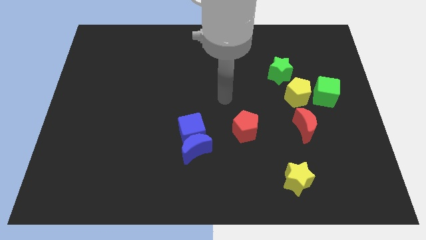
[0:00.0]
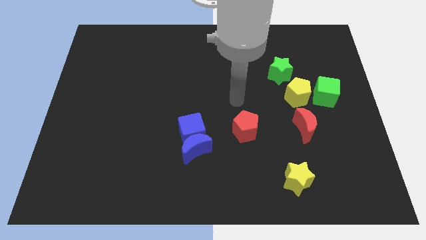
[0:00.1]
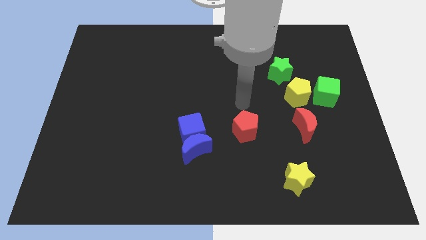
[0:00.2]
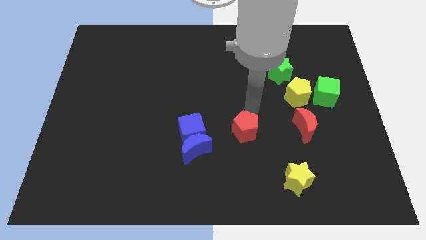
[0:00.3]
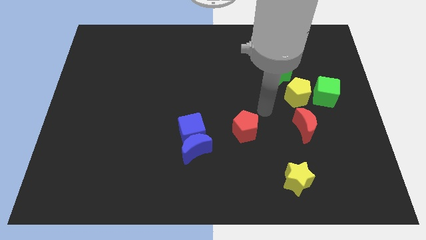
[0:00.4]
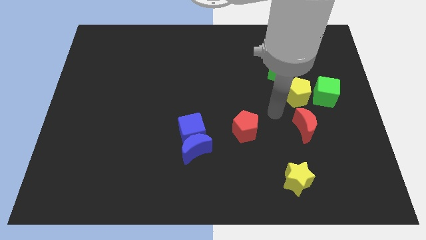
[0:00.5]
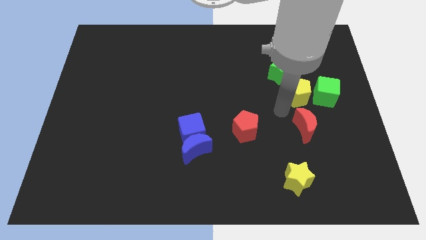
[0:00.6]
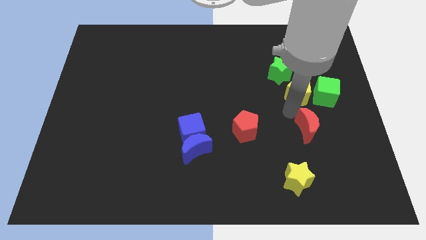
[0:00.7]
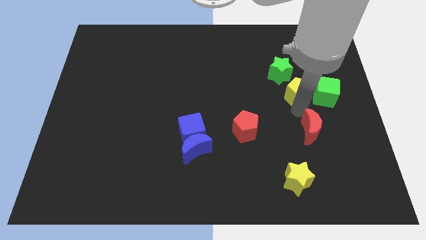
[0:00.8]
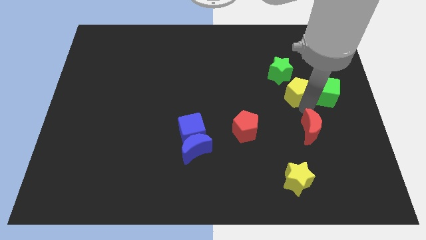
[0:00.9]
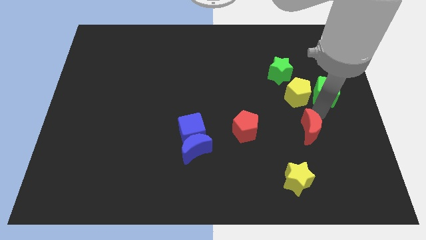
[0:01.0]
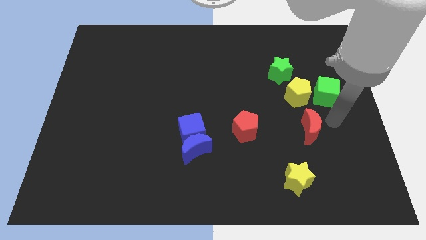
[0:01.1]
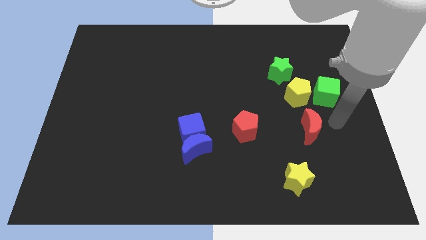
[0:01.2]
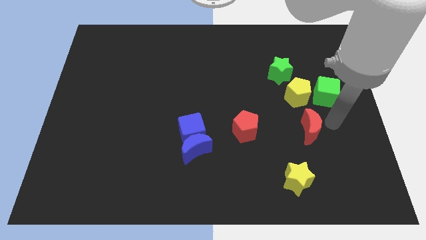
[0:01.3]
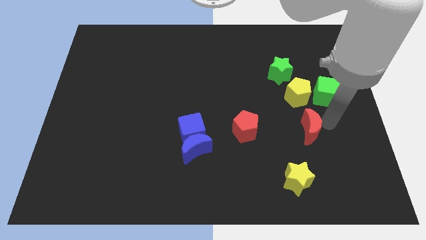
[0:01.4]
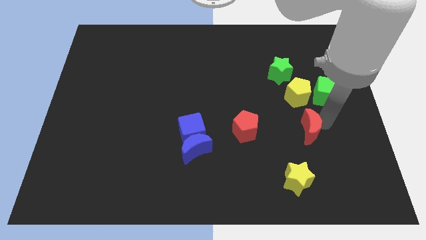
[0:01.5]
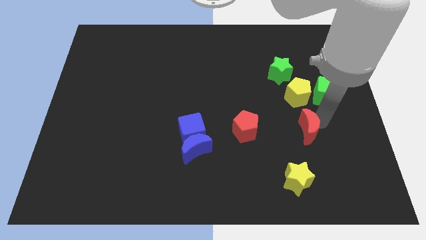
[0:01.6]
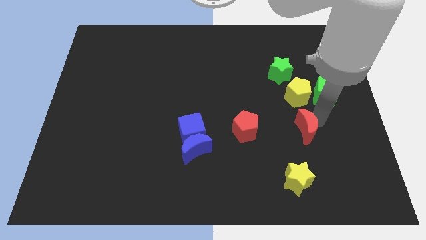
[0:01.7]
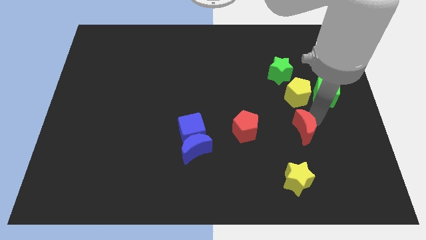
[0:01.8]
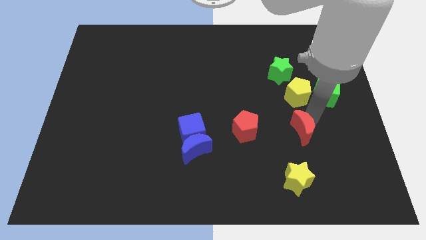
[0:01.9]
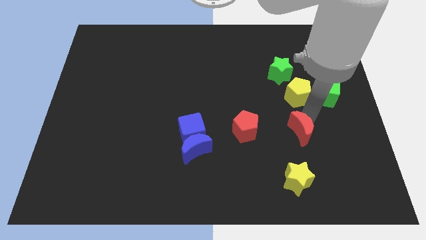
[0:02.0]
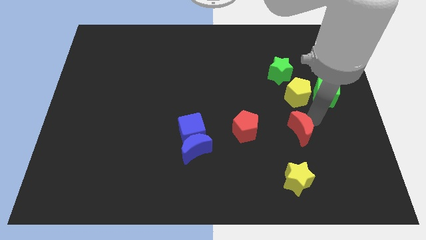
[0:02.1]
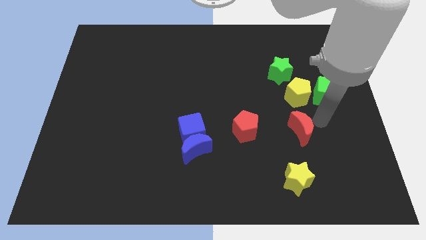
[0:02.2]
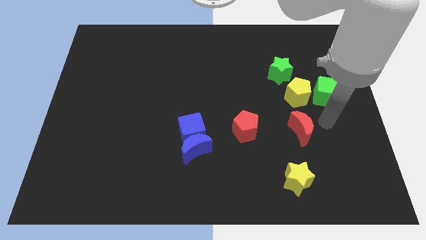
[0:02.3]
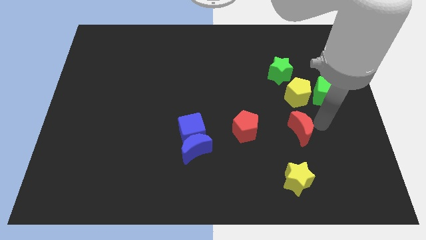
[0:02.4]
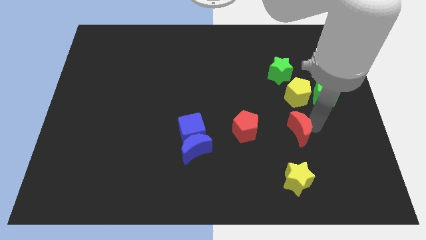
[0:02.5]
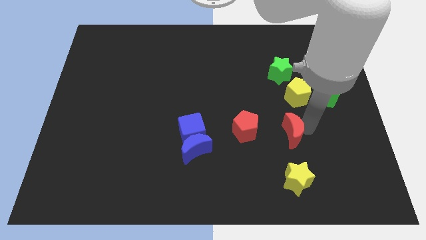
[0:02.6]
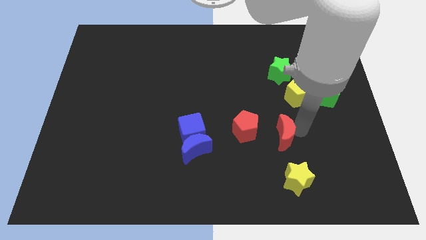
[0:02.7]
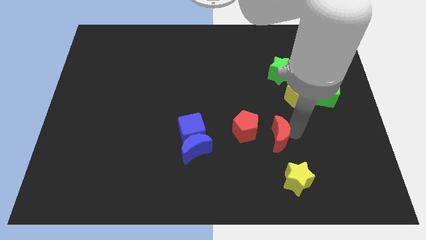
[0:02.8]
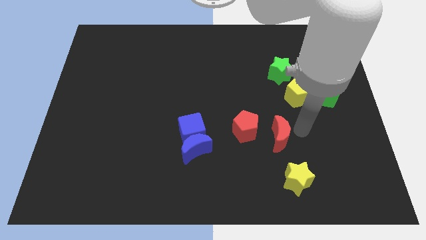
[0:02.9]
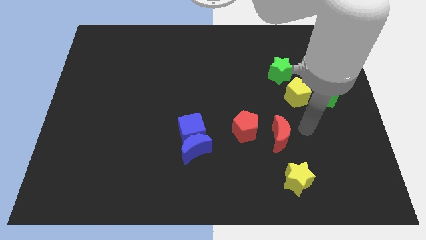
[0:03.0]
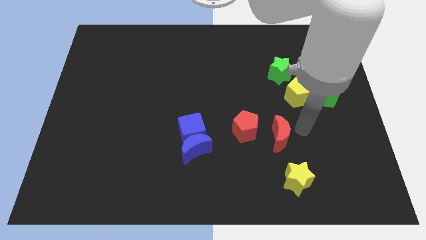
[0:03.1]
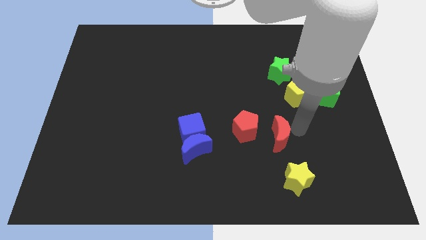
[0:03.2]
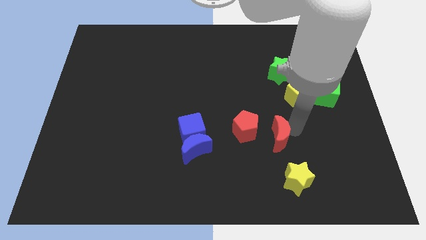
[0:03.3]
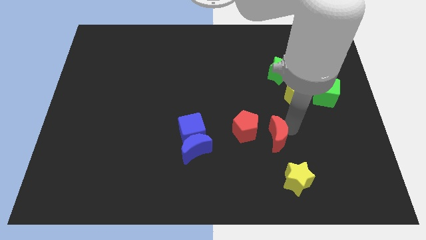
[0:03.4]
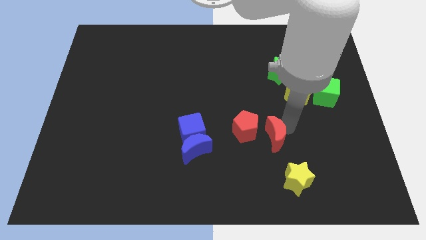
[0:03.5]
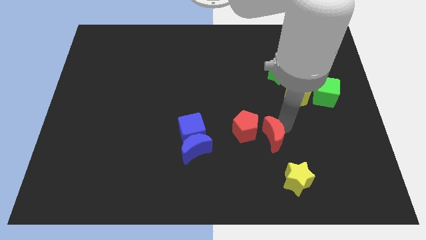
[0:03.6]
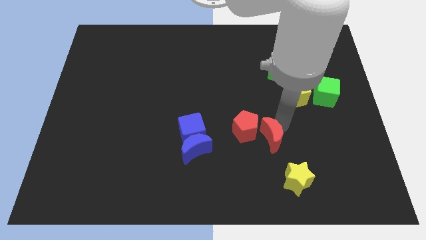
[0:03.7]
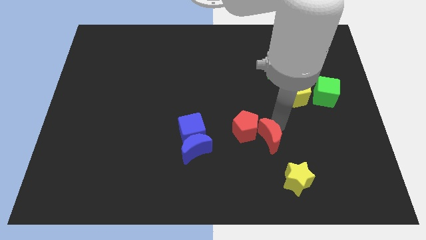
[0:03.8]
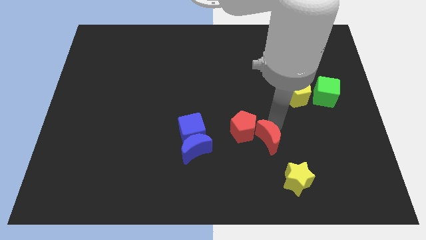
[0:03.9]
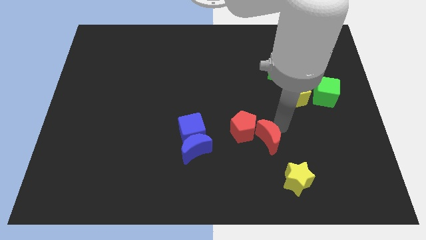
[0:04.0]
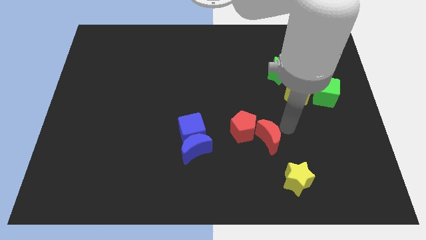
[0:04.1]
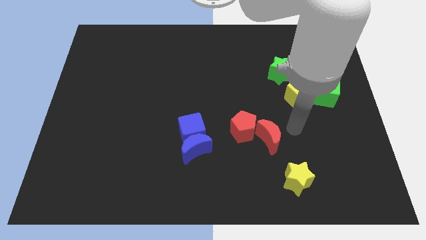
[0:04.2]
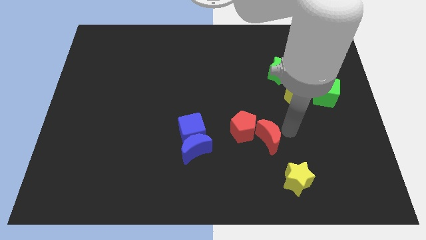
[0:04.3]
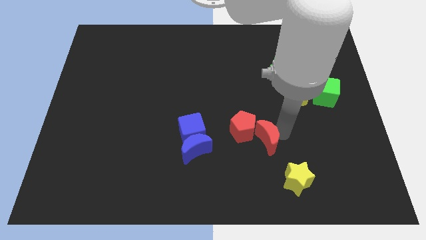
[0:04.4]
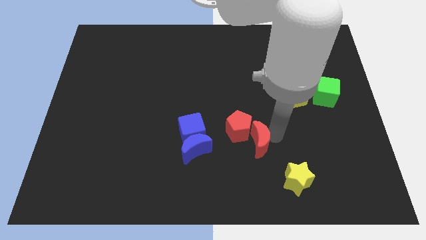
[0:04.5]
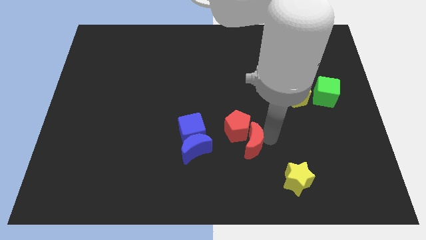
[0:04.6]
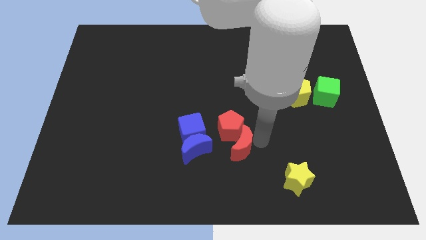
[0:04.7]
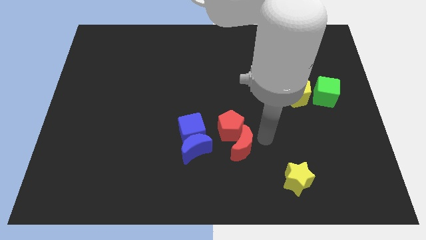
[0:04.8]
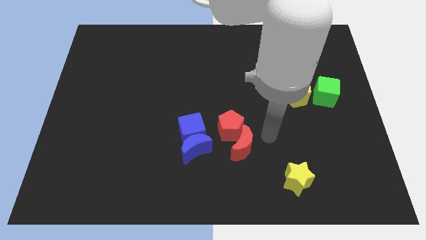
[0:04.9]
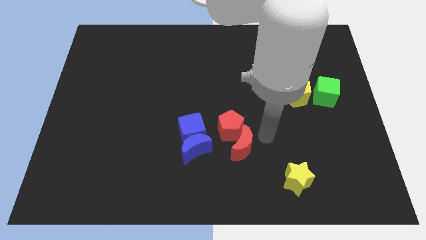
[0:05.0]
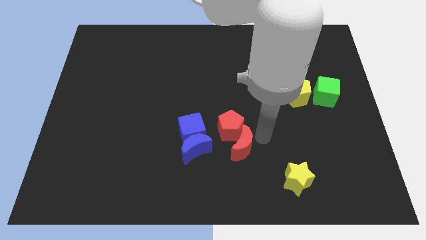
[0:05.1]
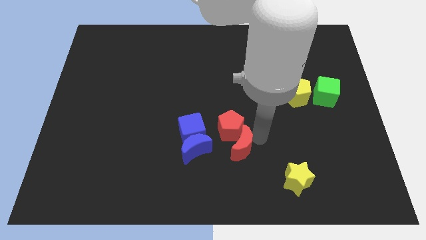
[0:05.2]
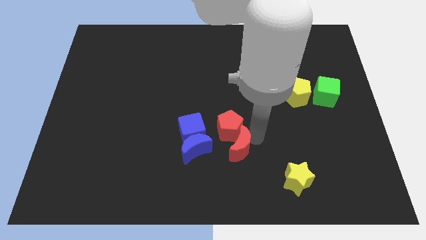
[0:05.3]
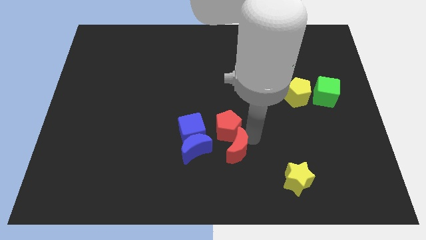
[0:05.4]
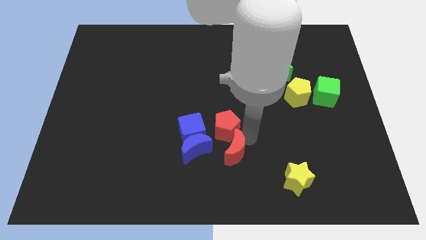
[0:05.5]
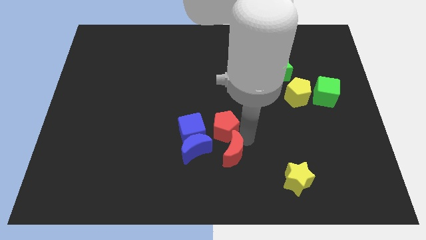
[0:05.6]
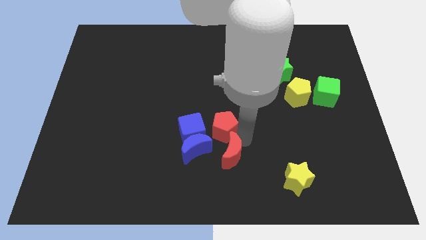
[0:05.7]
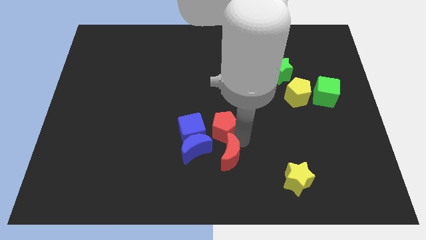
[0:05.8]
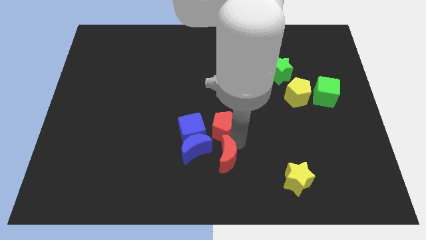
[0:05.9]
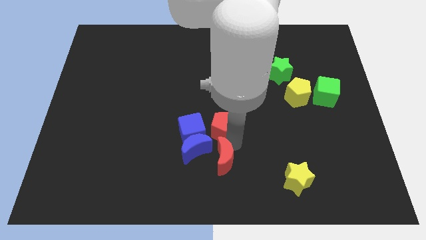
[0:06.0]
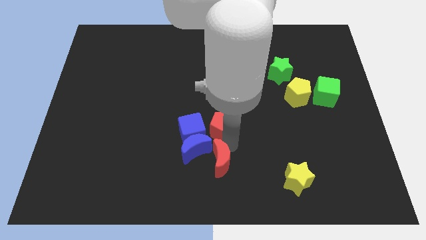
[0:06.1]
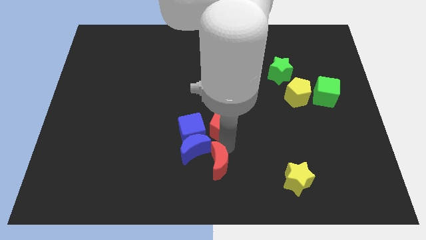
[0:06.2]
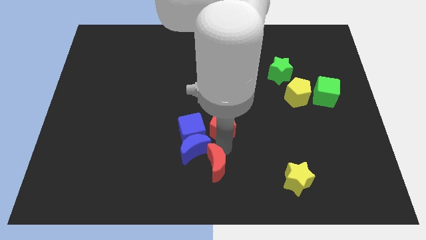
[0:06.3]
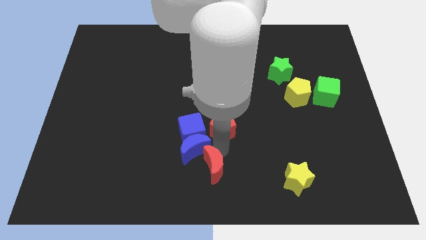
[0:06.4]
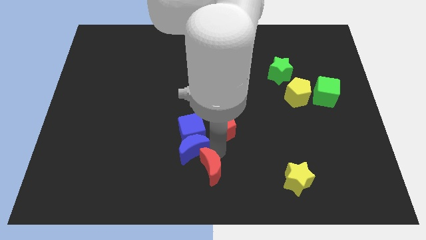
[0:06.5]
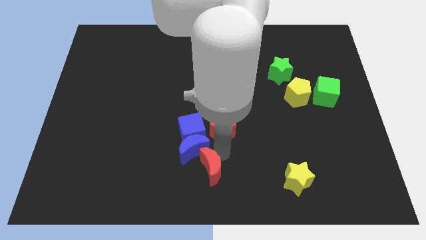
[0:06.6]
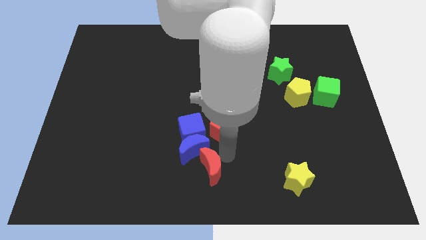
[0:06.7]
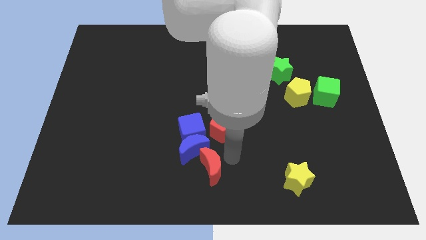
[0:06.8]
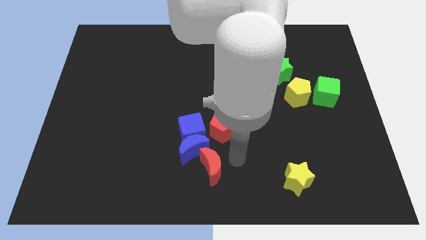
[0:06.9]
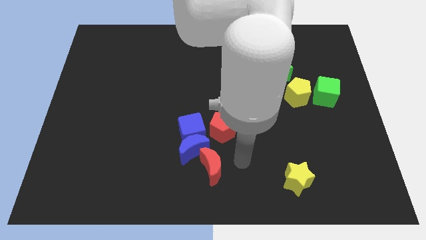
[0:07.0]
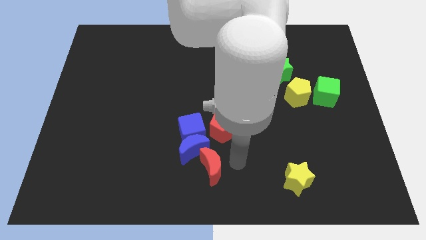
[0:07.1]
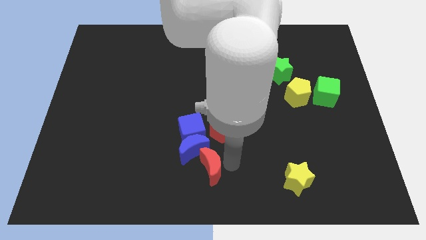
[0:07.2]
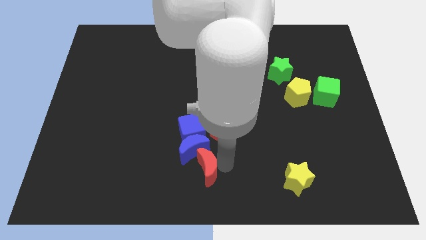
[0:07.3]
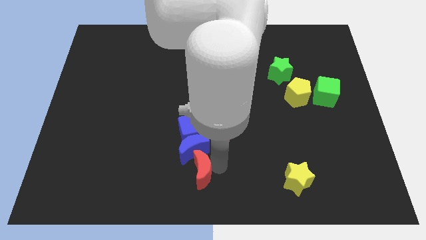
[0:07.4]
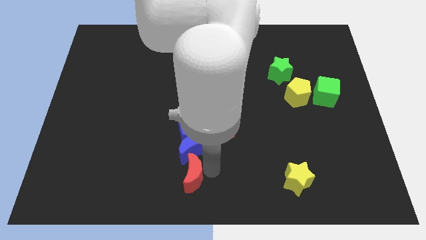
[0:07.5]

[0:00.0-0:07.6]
move the red moon diagonally down and to the left of the blue moon
